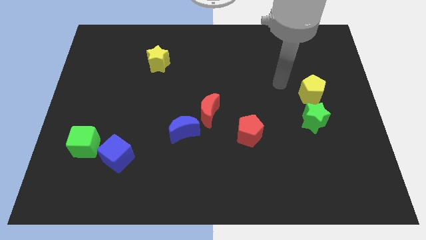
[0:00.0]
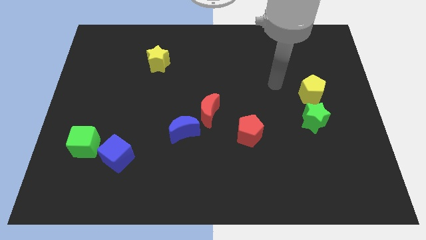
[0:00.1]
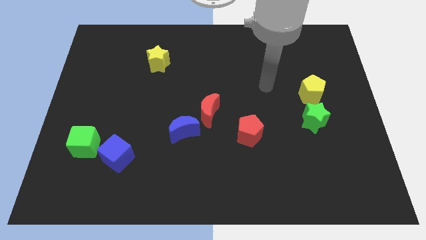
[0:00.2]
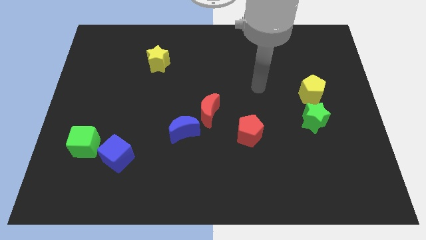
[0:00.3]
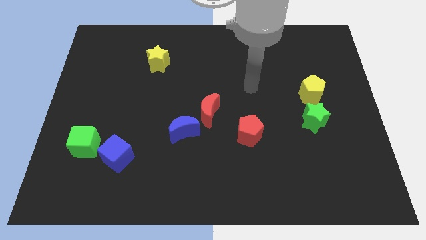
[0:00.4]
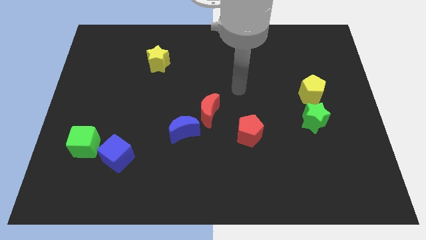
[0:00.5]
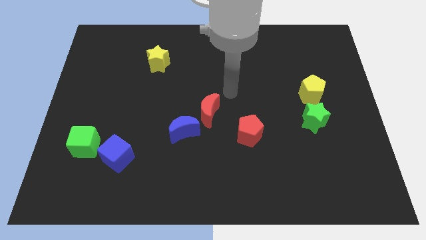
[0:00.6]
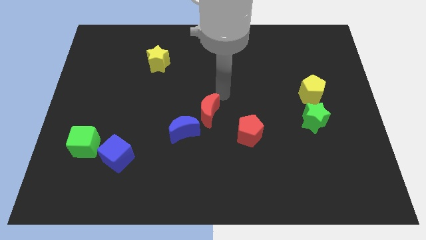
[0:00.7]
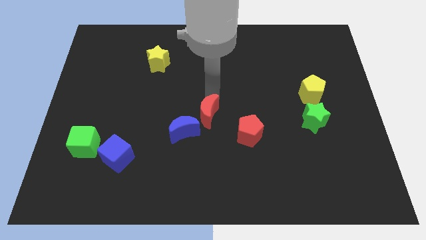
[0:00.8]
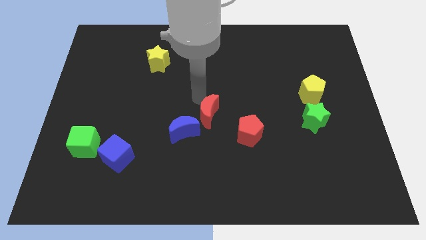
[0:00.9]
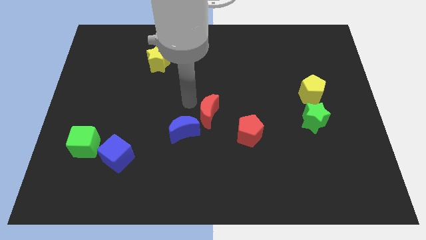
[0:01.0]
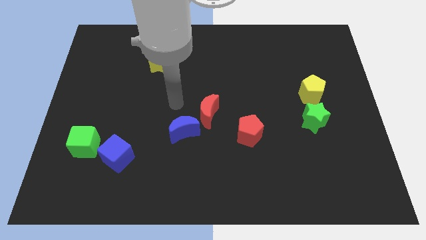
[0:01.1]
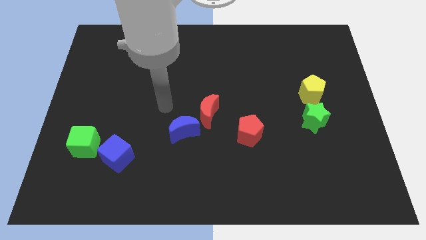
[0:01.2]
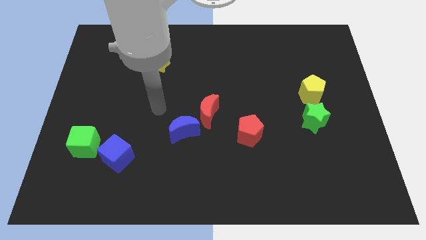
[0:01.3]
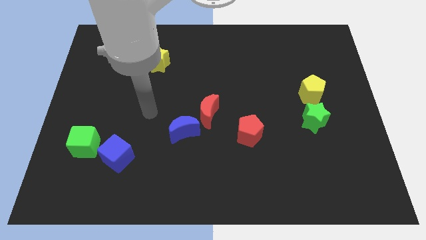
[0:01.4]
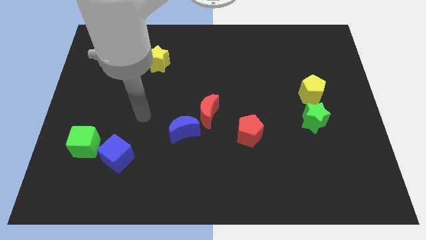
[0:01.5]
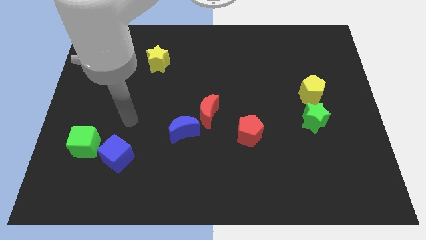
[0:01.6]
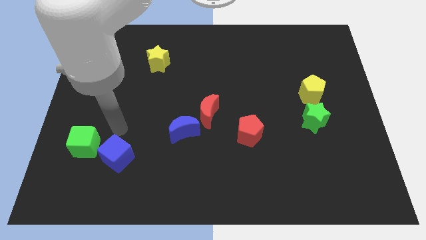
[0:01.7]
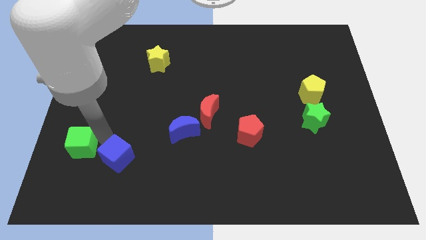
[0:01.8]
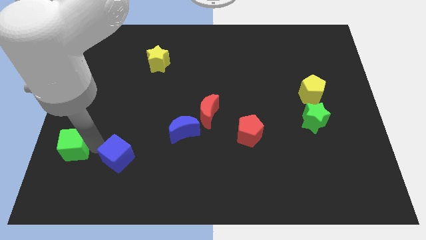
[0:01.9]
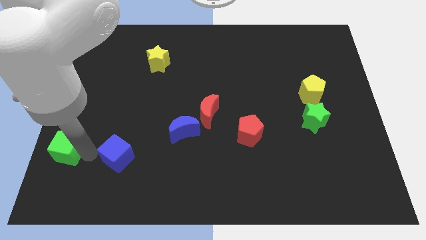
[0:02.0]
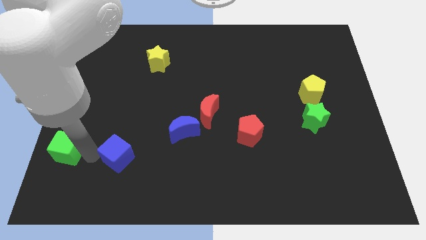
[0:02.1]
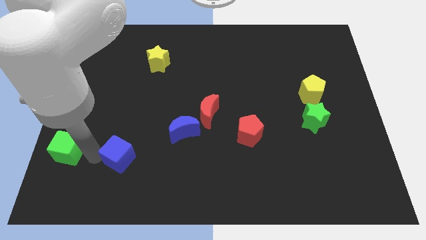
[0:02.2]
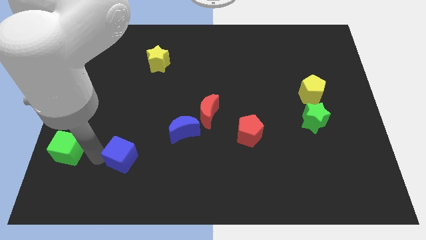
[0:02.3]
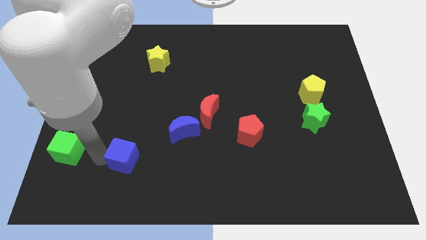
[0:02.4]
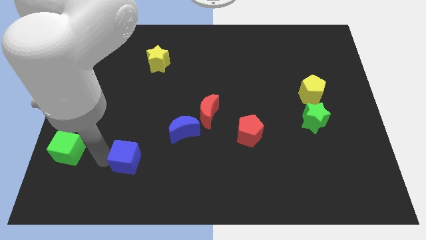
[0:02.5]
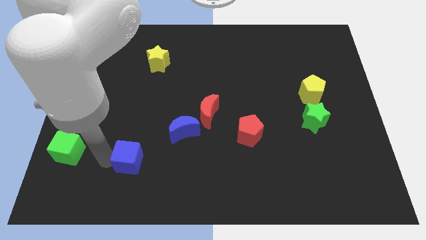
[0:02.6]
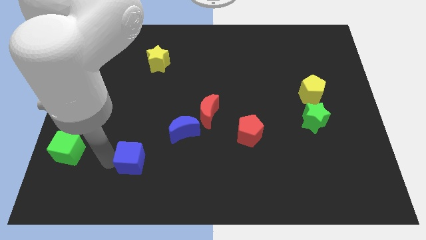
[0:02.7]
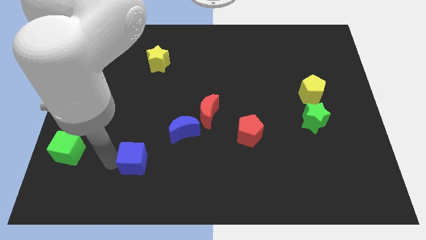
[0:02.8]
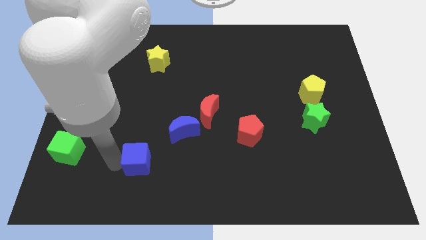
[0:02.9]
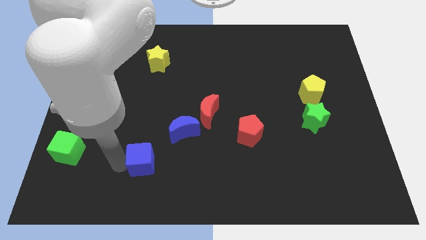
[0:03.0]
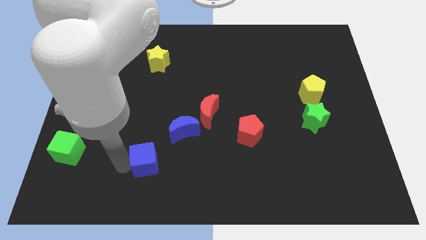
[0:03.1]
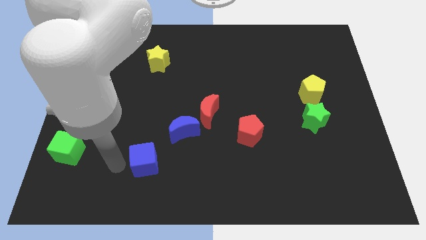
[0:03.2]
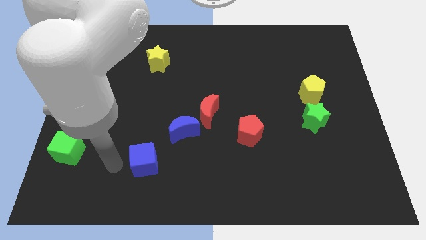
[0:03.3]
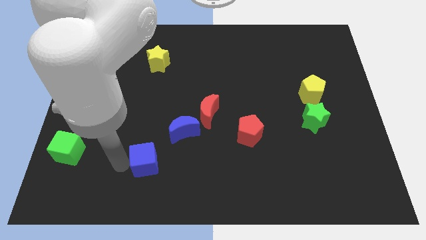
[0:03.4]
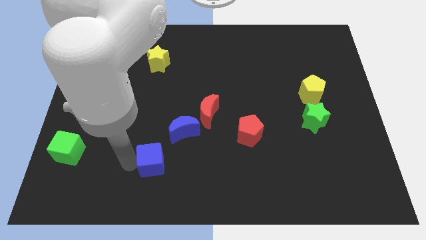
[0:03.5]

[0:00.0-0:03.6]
slide the blue cube to the right slightly

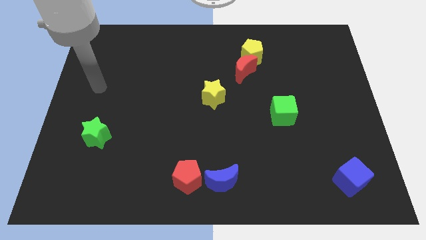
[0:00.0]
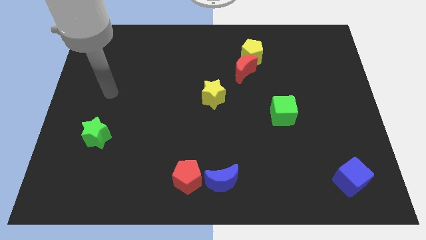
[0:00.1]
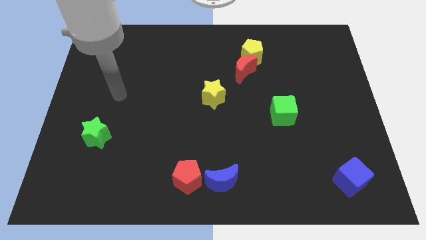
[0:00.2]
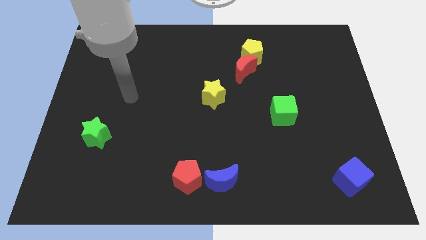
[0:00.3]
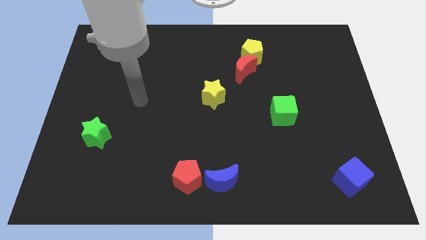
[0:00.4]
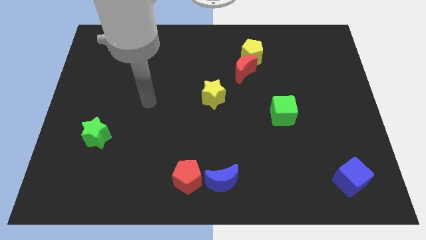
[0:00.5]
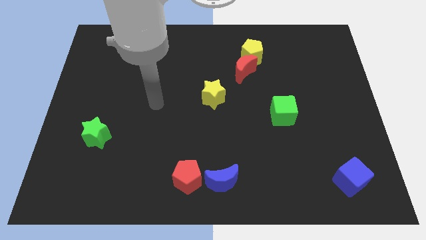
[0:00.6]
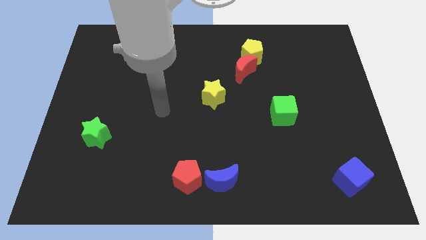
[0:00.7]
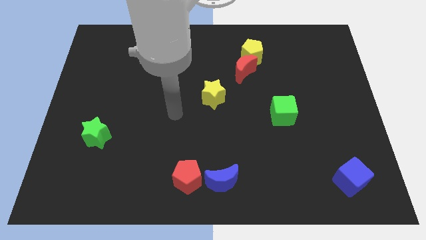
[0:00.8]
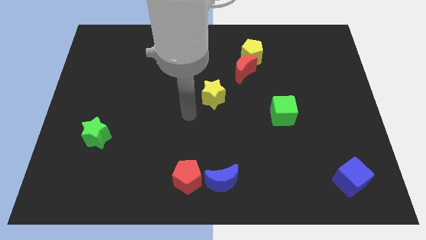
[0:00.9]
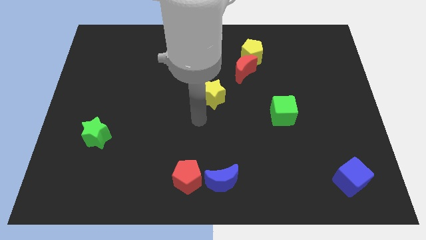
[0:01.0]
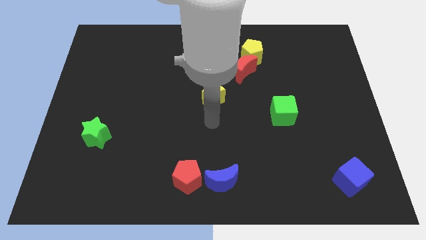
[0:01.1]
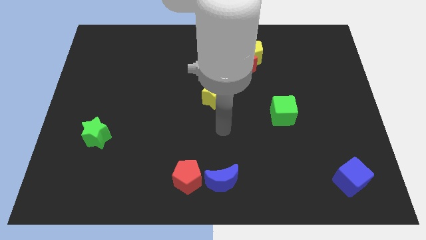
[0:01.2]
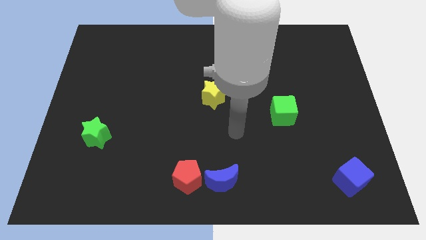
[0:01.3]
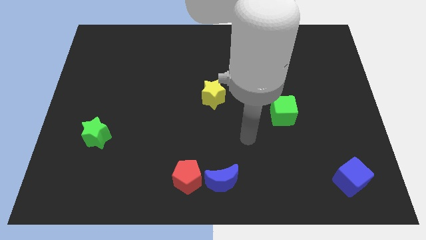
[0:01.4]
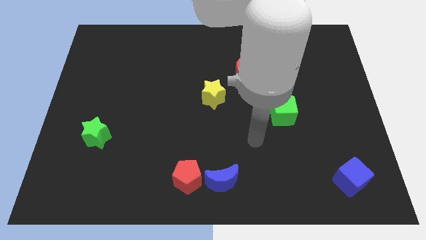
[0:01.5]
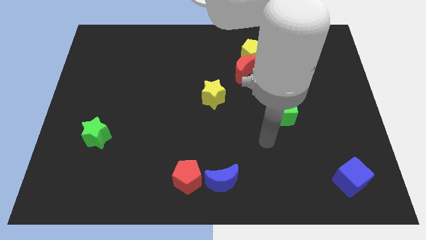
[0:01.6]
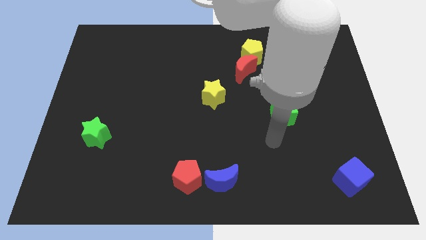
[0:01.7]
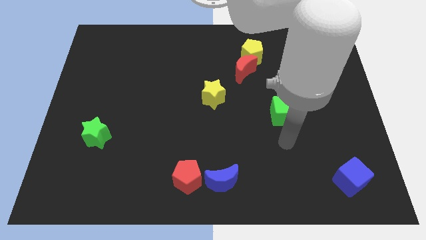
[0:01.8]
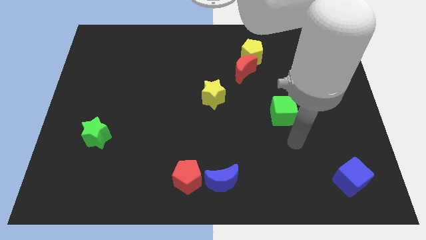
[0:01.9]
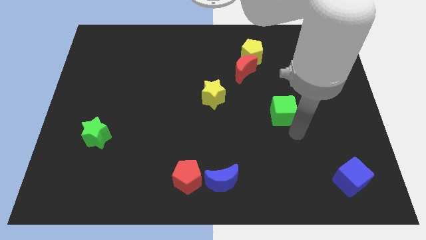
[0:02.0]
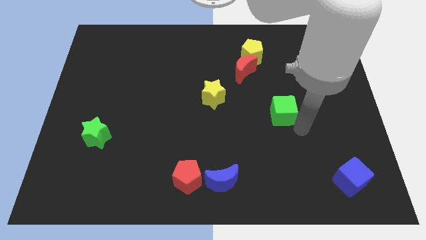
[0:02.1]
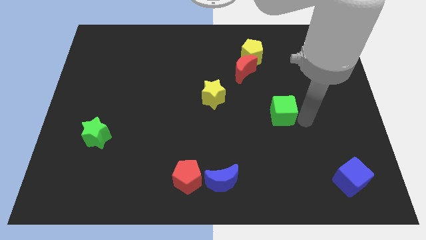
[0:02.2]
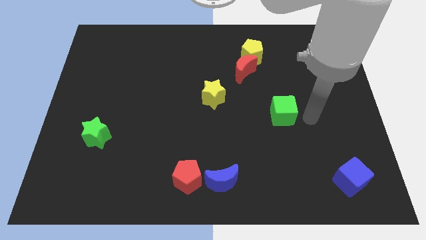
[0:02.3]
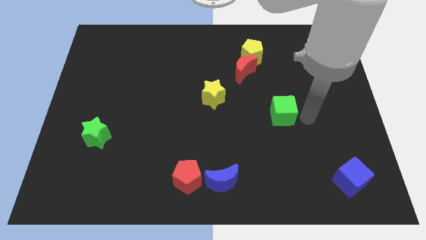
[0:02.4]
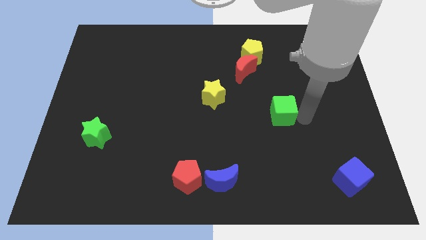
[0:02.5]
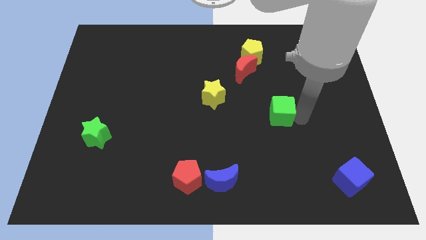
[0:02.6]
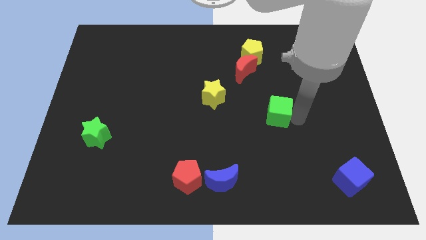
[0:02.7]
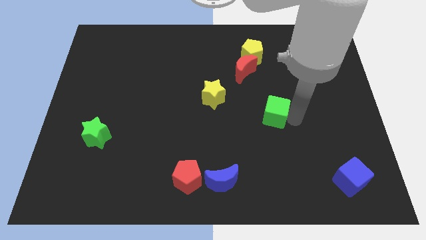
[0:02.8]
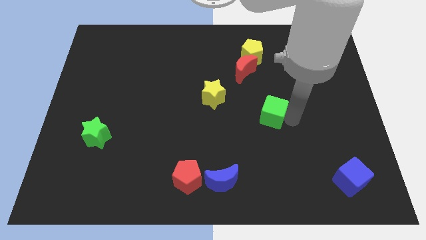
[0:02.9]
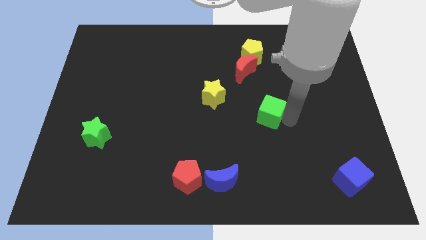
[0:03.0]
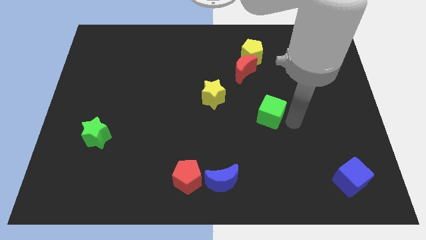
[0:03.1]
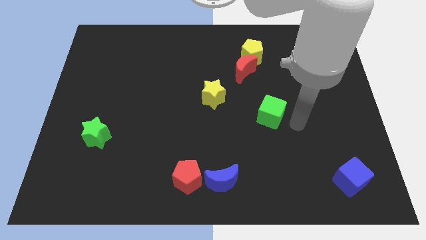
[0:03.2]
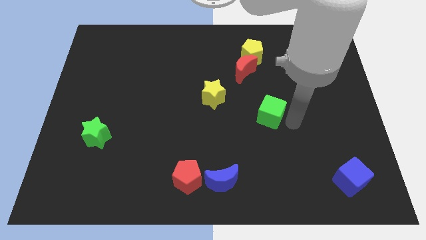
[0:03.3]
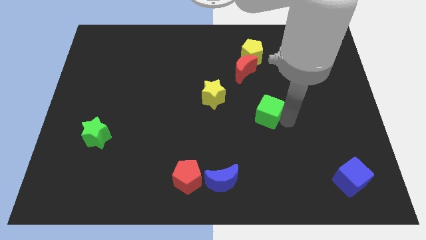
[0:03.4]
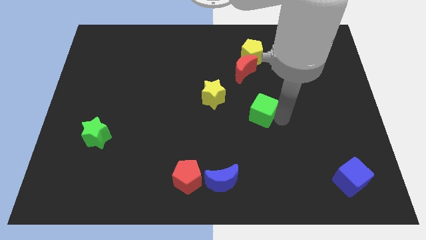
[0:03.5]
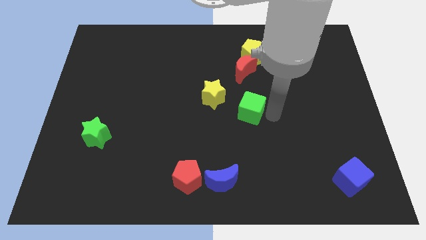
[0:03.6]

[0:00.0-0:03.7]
push the green cube left a little

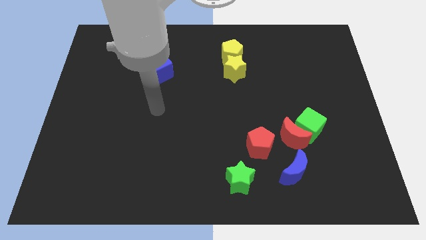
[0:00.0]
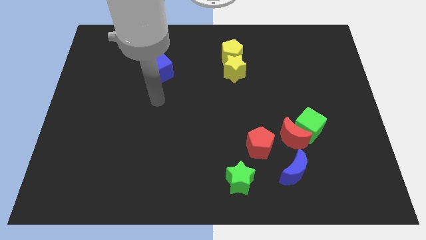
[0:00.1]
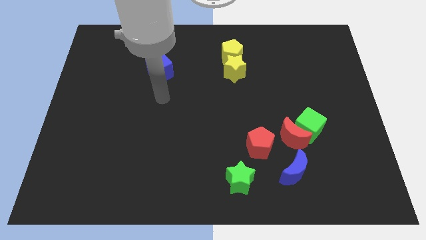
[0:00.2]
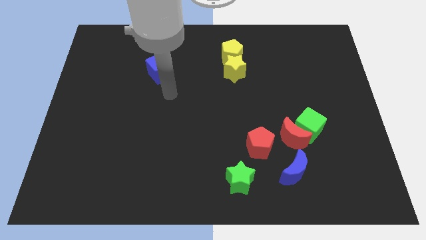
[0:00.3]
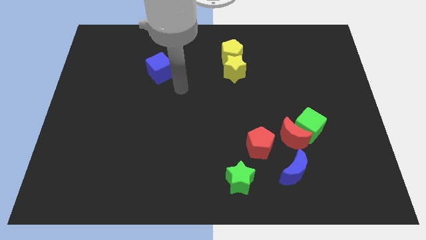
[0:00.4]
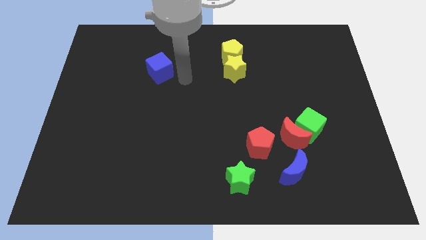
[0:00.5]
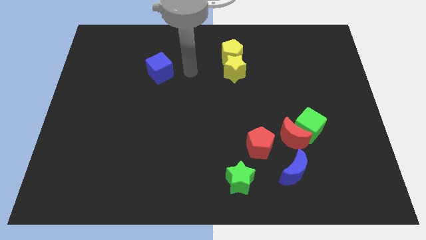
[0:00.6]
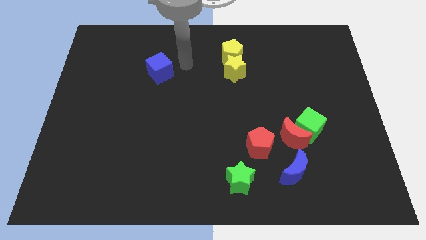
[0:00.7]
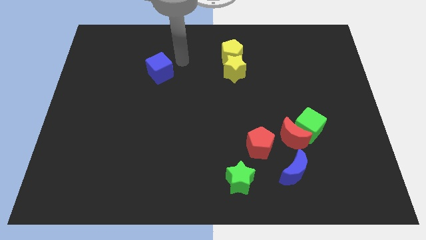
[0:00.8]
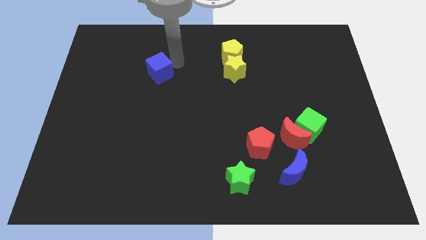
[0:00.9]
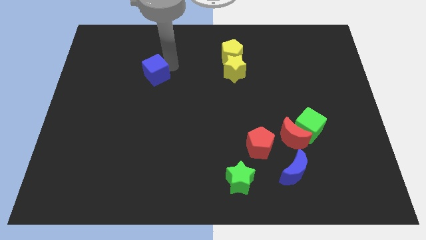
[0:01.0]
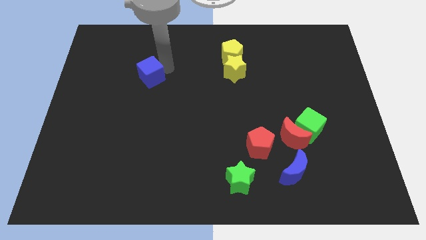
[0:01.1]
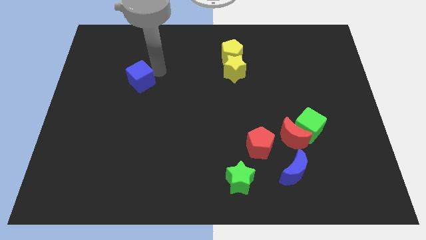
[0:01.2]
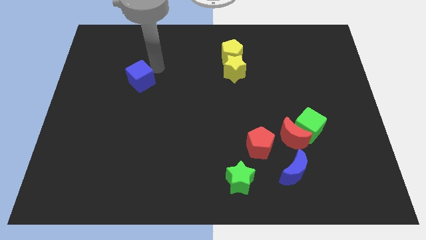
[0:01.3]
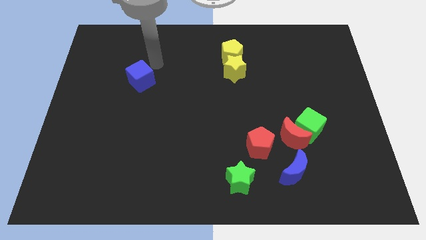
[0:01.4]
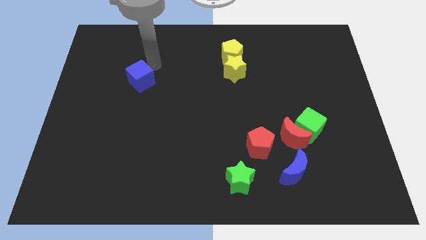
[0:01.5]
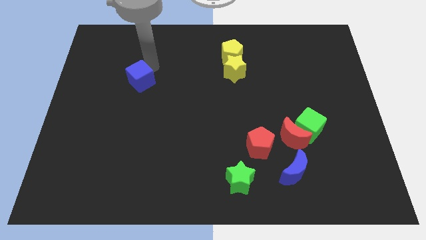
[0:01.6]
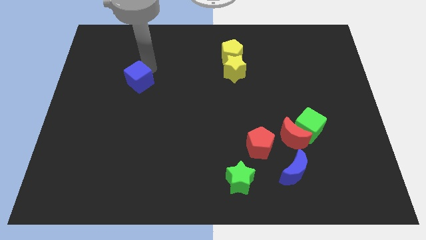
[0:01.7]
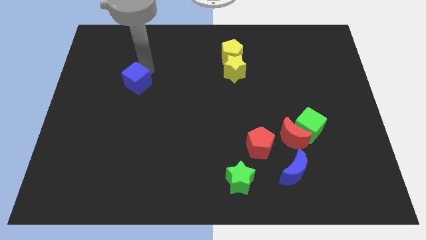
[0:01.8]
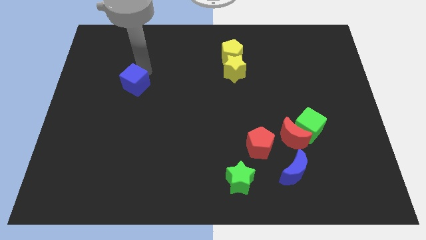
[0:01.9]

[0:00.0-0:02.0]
move the blue cube downwards and left slightly
